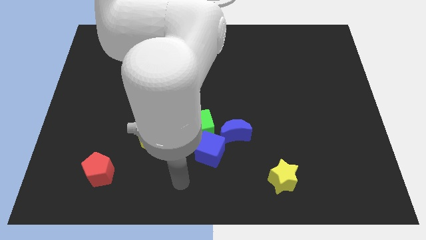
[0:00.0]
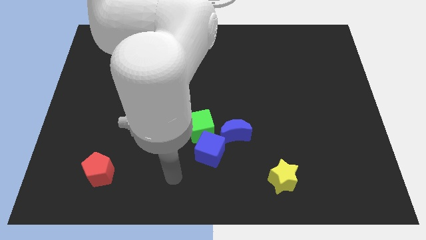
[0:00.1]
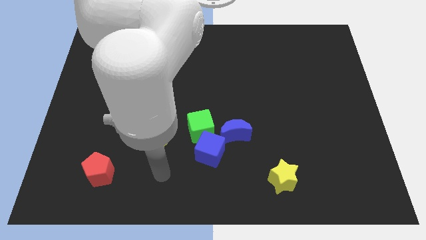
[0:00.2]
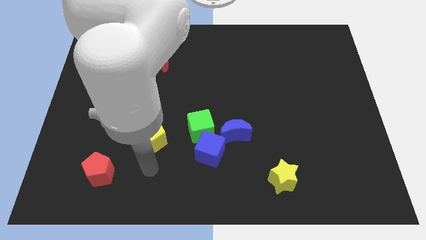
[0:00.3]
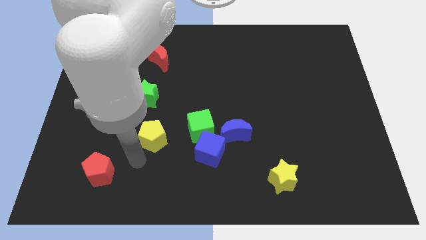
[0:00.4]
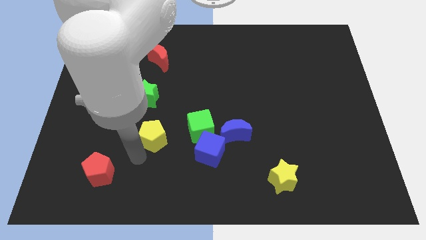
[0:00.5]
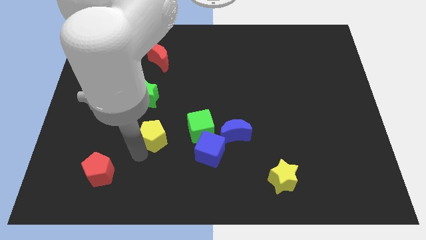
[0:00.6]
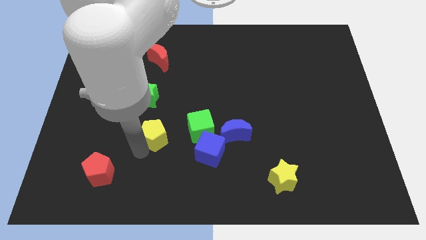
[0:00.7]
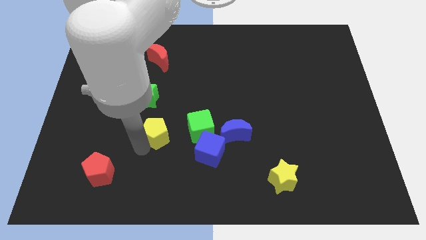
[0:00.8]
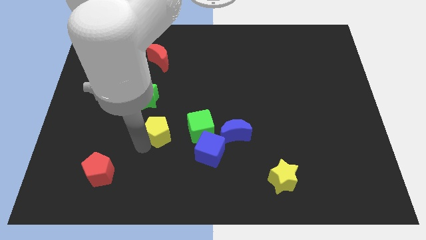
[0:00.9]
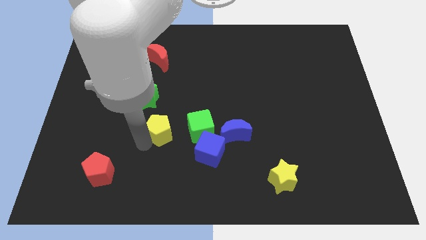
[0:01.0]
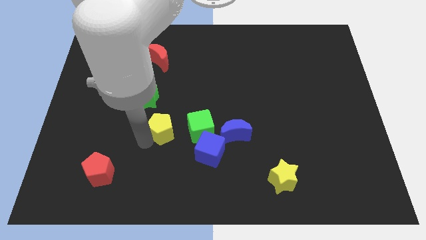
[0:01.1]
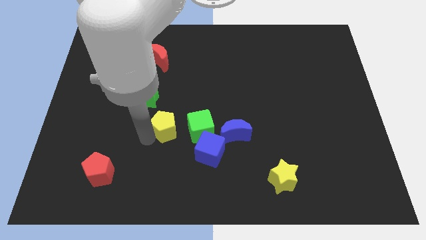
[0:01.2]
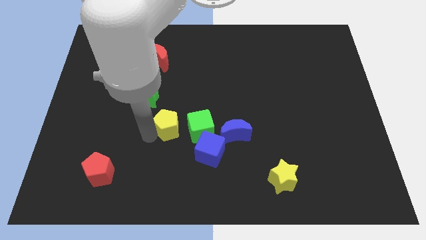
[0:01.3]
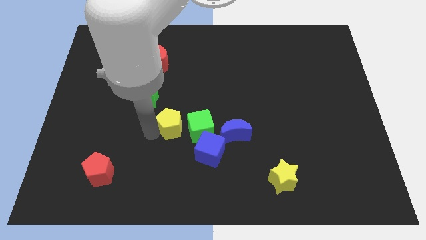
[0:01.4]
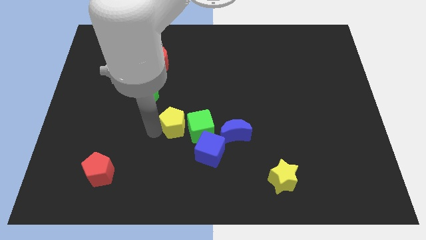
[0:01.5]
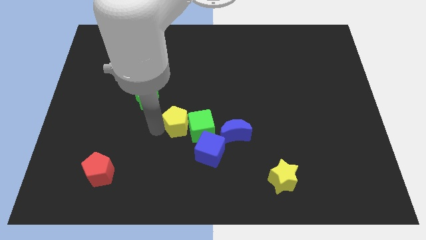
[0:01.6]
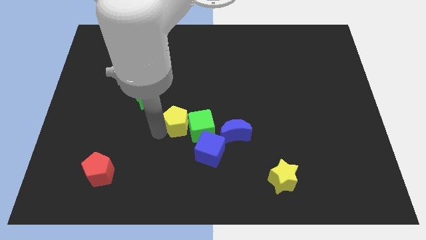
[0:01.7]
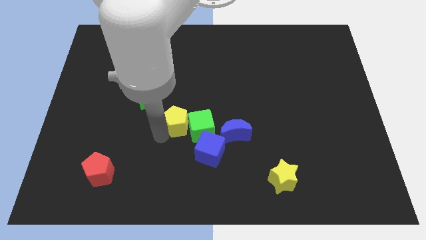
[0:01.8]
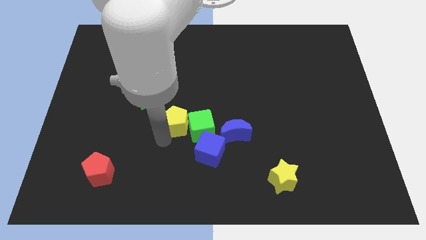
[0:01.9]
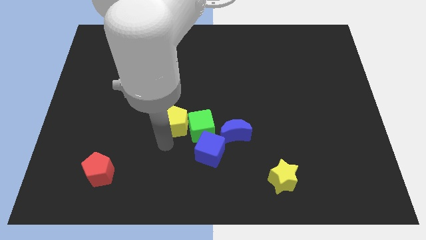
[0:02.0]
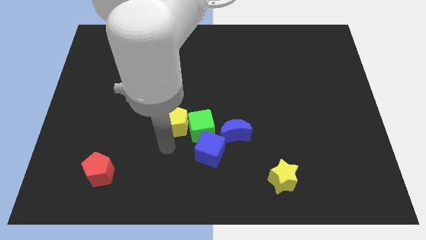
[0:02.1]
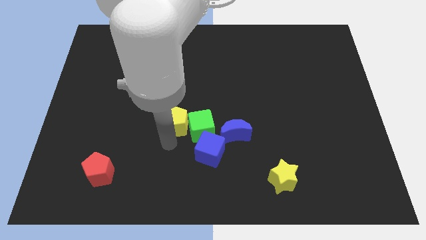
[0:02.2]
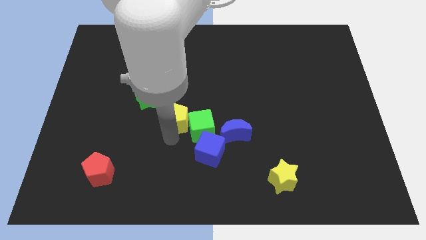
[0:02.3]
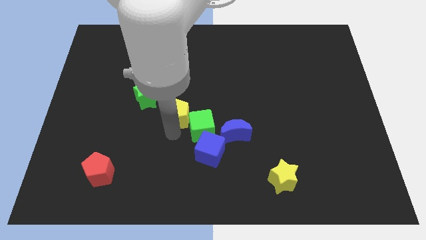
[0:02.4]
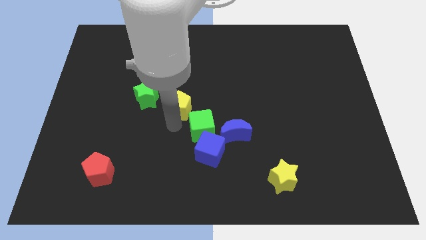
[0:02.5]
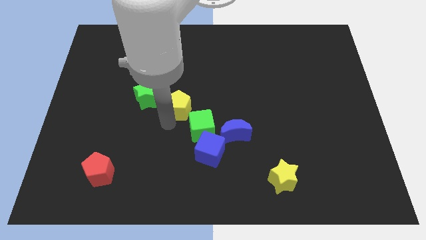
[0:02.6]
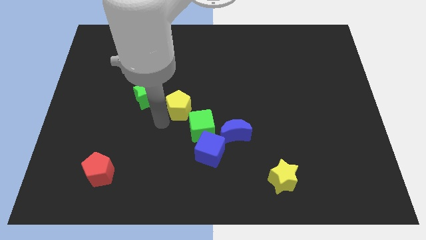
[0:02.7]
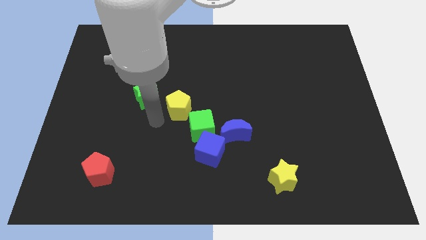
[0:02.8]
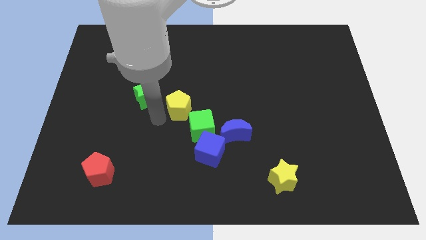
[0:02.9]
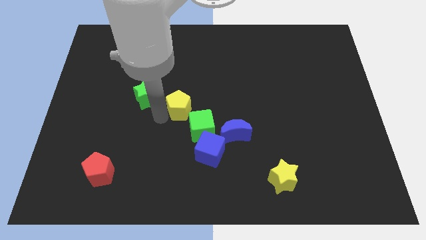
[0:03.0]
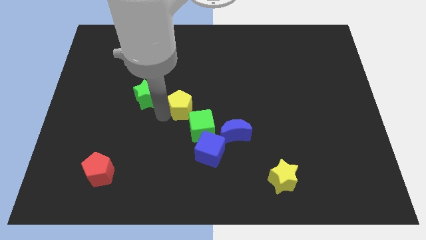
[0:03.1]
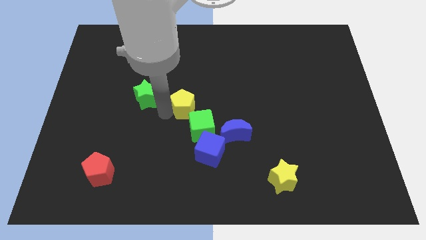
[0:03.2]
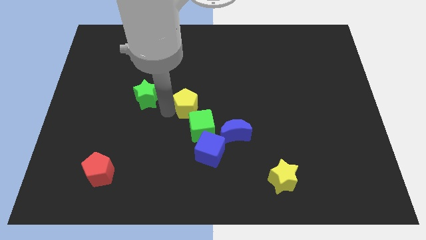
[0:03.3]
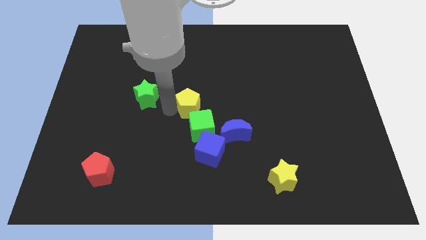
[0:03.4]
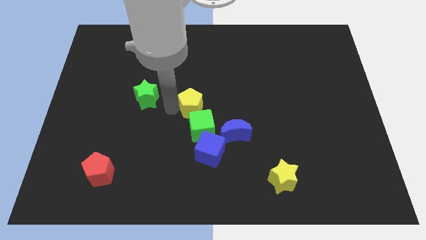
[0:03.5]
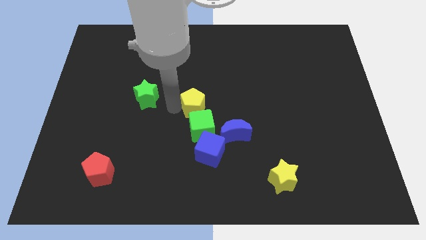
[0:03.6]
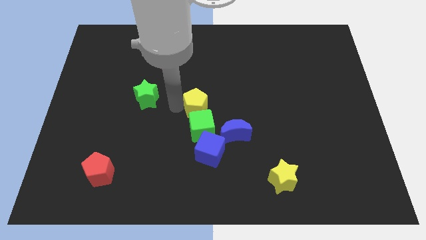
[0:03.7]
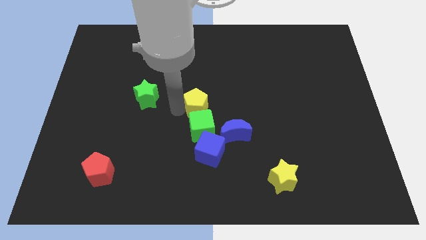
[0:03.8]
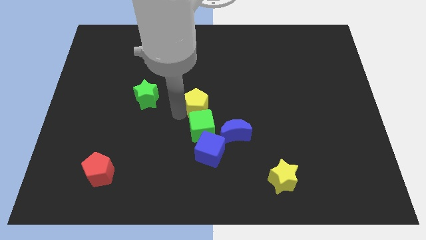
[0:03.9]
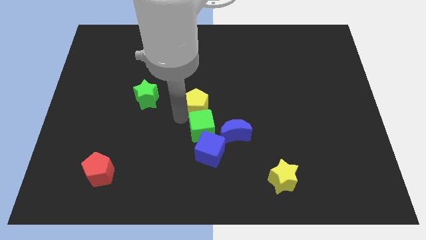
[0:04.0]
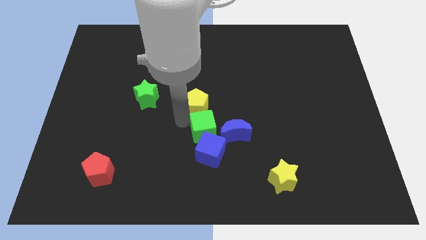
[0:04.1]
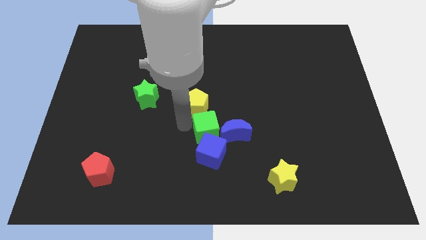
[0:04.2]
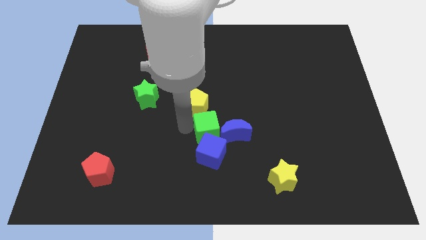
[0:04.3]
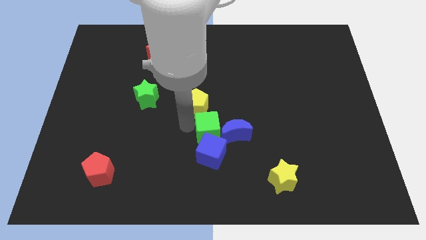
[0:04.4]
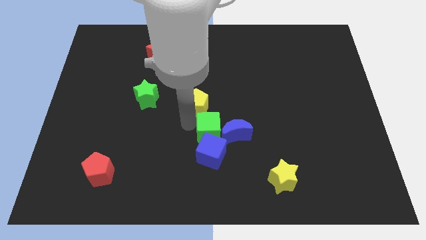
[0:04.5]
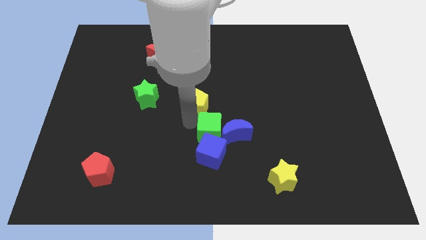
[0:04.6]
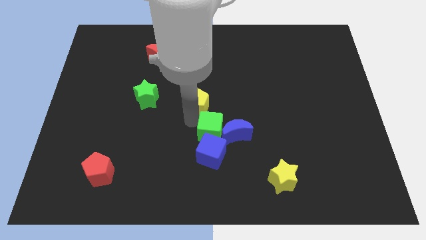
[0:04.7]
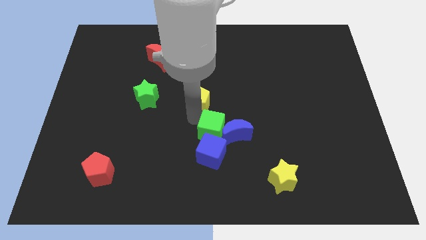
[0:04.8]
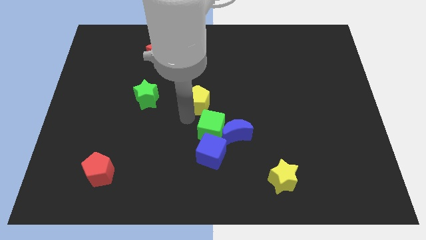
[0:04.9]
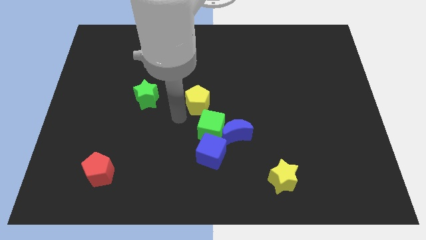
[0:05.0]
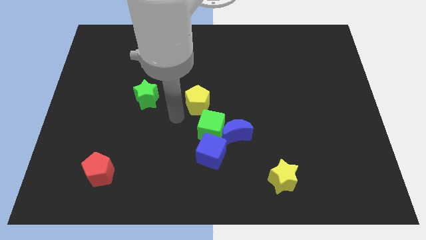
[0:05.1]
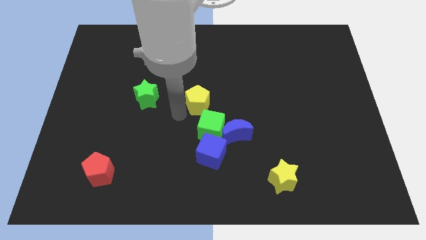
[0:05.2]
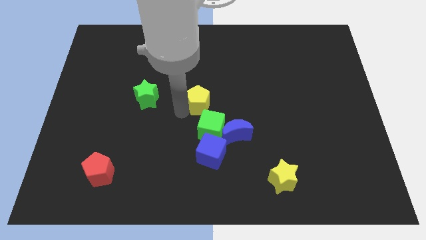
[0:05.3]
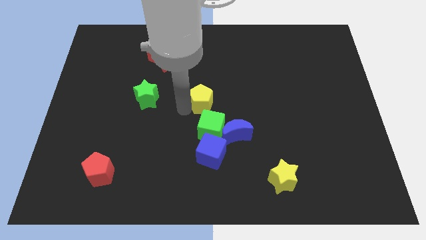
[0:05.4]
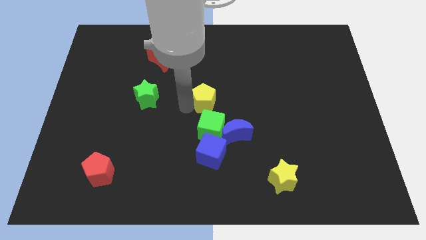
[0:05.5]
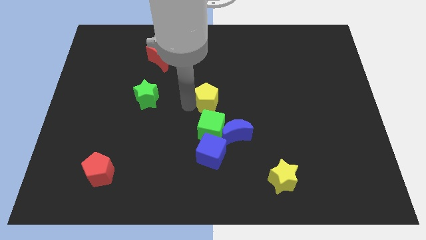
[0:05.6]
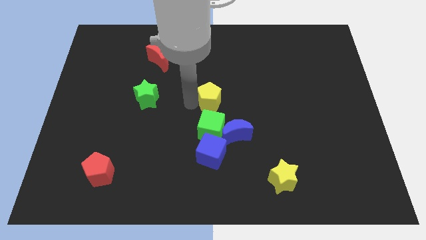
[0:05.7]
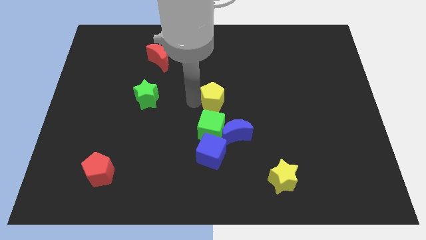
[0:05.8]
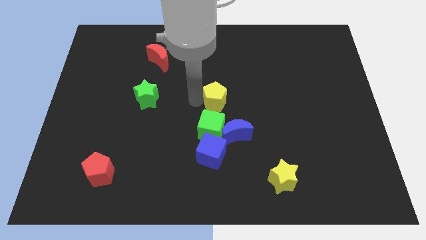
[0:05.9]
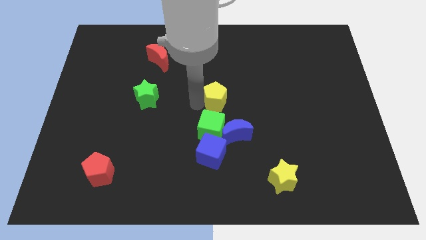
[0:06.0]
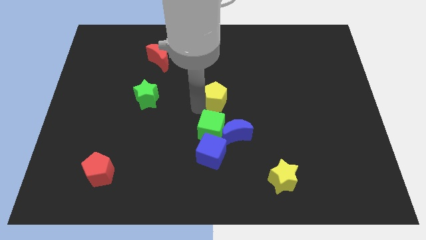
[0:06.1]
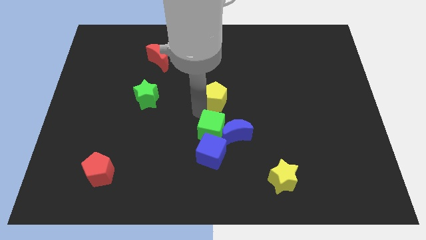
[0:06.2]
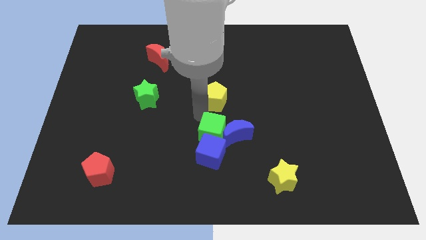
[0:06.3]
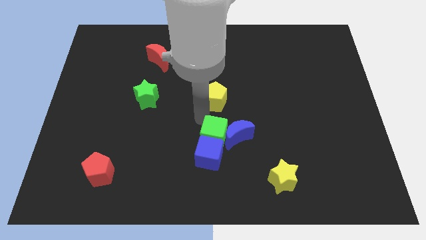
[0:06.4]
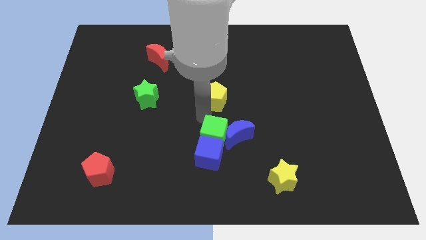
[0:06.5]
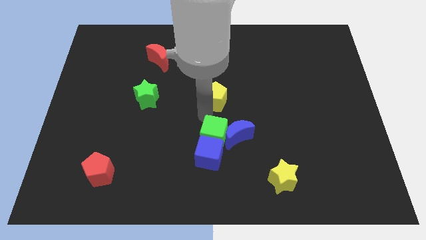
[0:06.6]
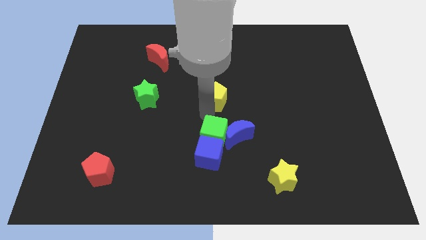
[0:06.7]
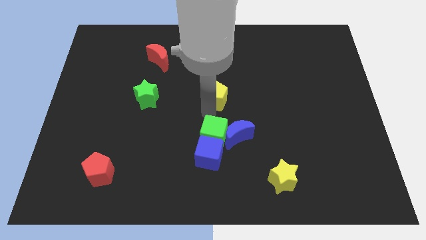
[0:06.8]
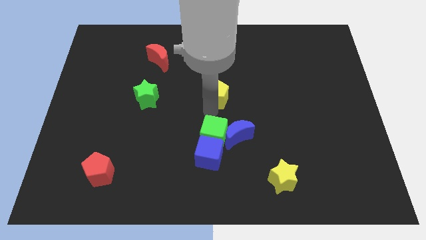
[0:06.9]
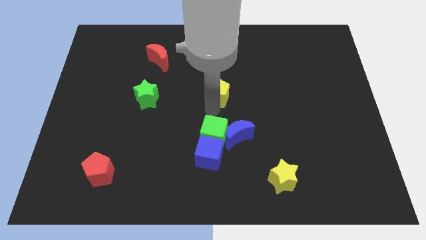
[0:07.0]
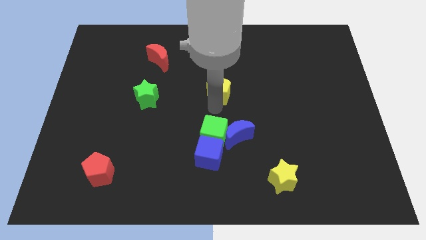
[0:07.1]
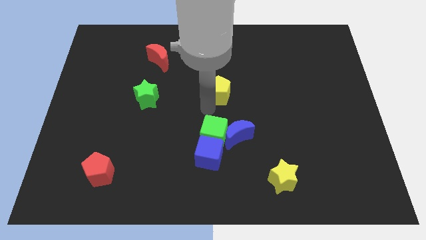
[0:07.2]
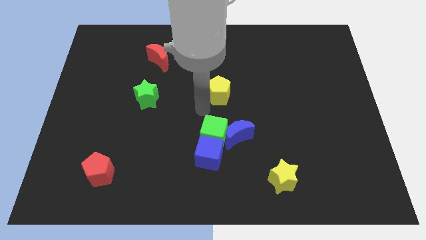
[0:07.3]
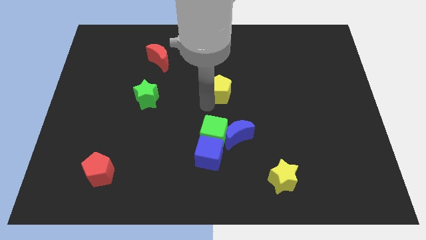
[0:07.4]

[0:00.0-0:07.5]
push the yellow pentagon upwards and then right

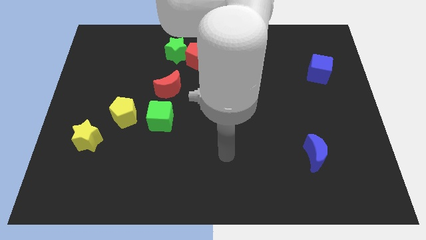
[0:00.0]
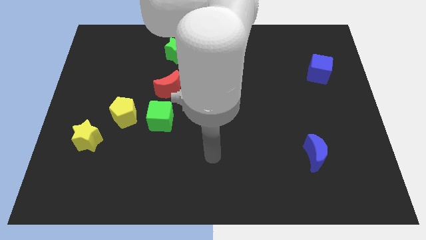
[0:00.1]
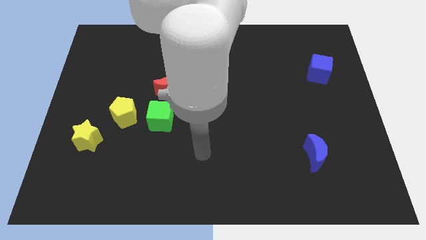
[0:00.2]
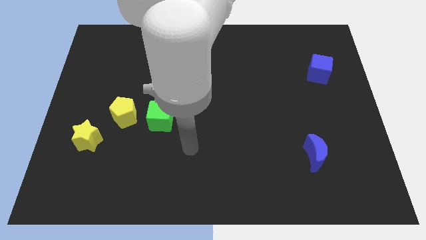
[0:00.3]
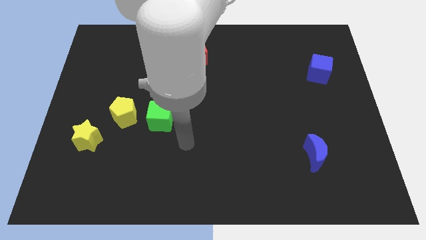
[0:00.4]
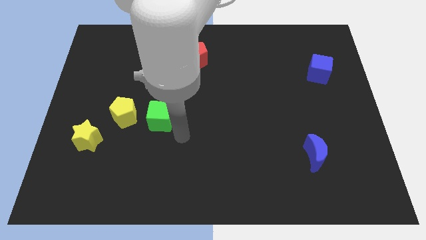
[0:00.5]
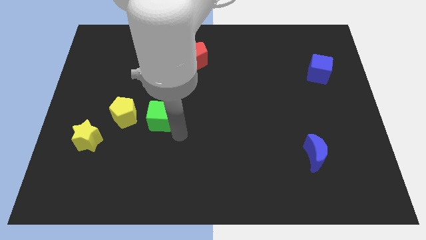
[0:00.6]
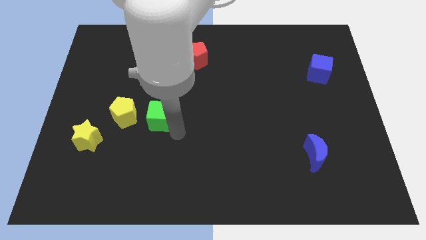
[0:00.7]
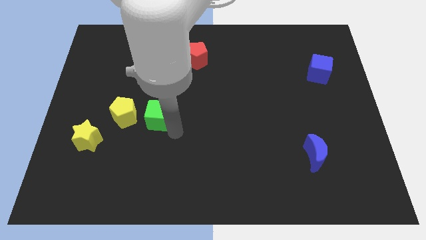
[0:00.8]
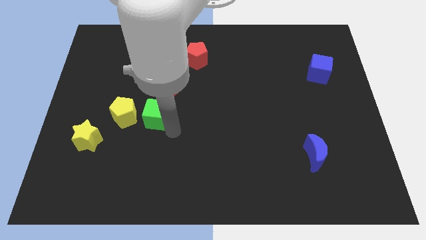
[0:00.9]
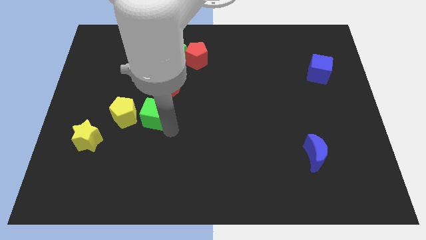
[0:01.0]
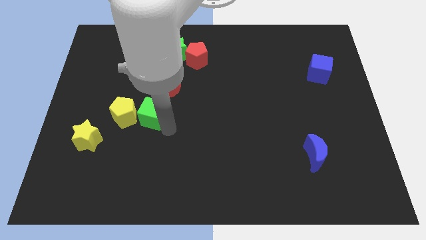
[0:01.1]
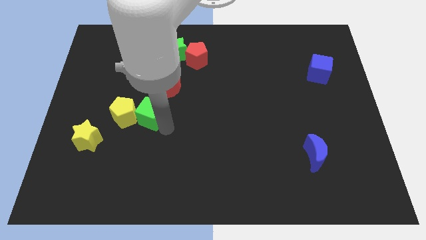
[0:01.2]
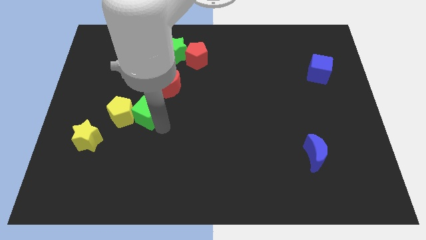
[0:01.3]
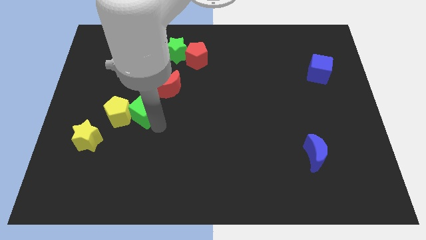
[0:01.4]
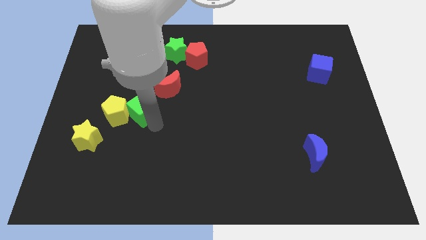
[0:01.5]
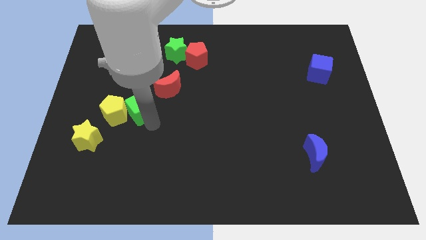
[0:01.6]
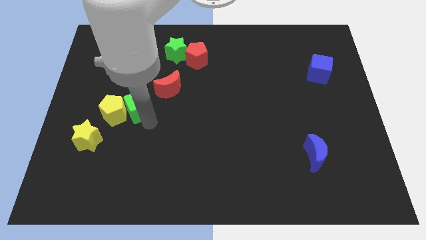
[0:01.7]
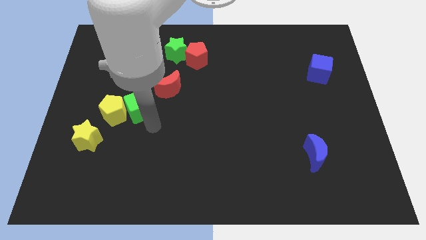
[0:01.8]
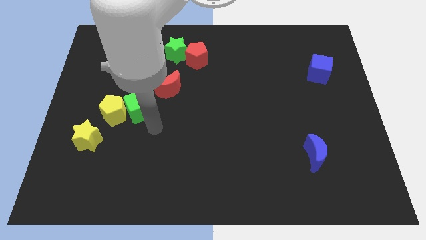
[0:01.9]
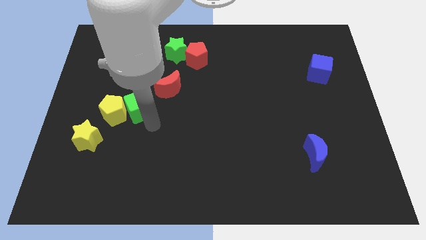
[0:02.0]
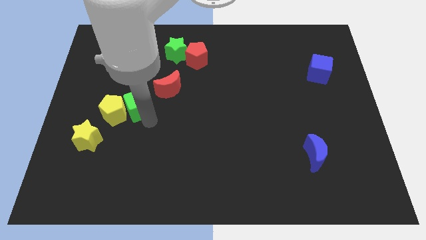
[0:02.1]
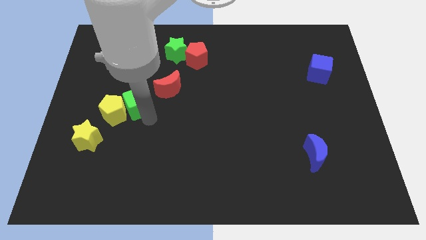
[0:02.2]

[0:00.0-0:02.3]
slide the green cube up and to the left diagonally a bit
